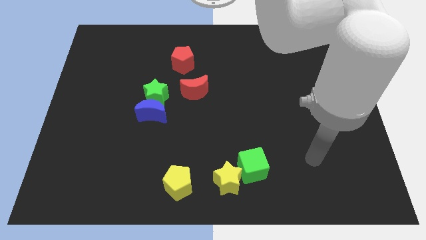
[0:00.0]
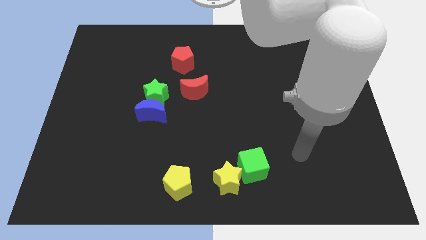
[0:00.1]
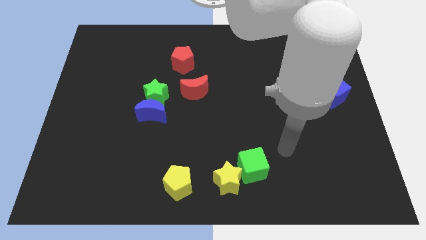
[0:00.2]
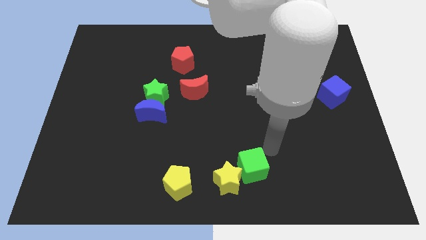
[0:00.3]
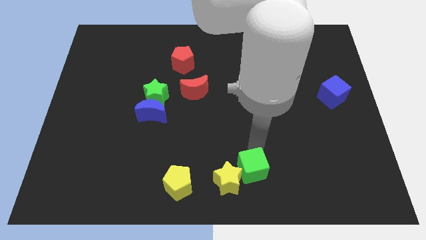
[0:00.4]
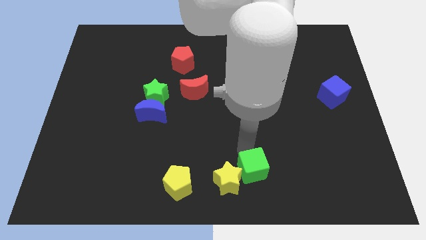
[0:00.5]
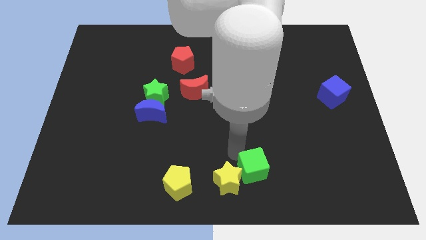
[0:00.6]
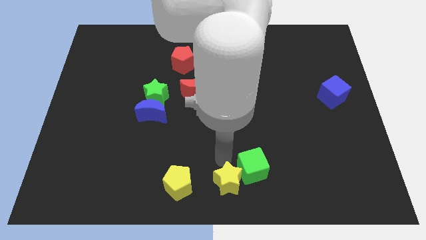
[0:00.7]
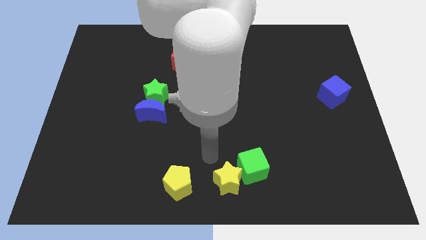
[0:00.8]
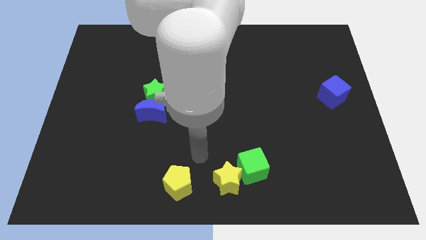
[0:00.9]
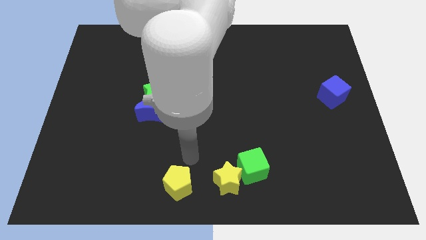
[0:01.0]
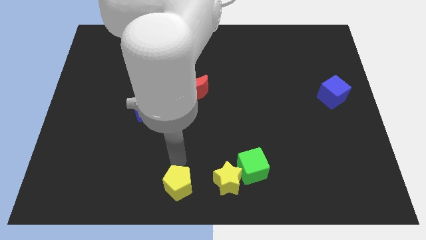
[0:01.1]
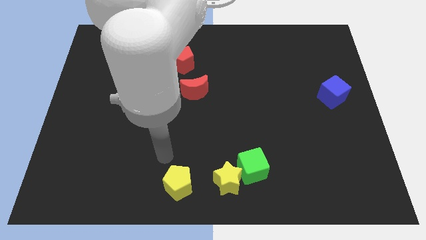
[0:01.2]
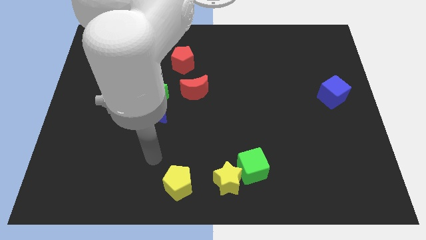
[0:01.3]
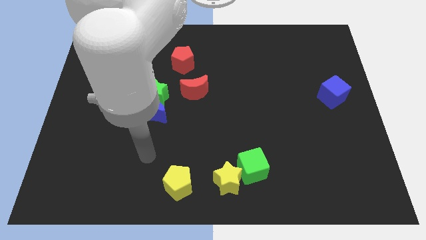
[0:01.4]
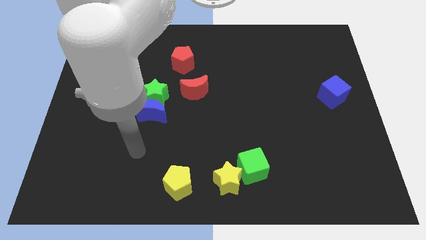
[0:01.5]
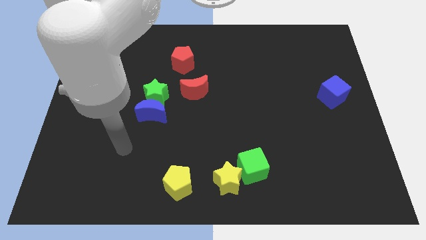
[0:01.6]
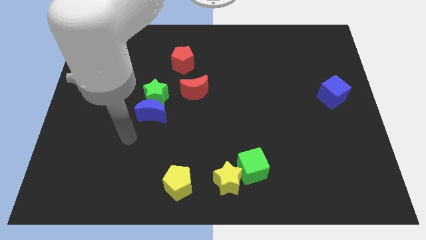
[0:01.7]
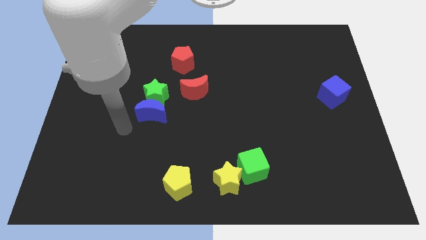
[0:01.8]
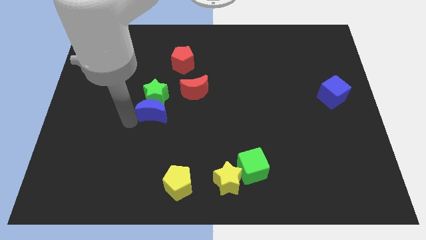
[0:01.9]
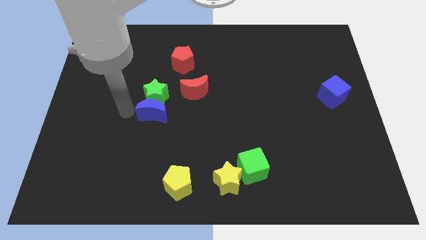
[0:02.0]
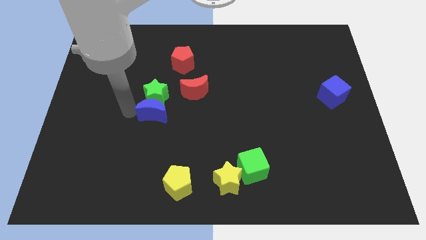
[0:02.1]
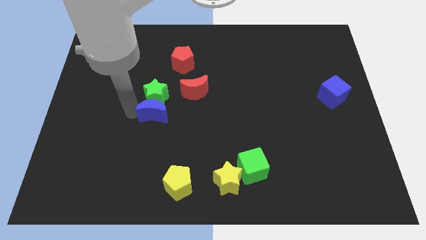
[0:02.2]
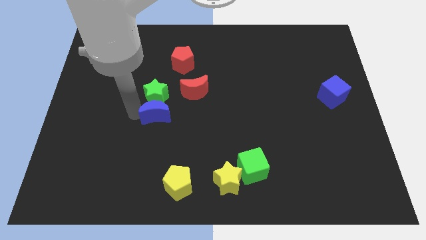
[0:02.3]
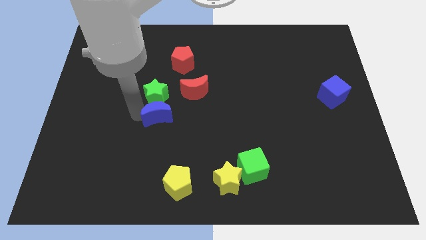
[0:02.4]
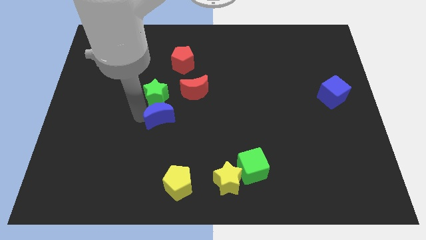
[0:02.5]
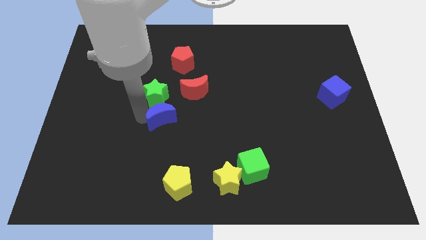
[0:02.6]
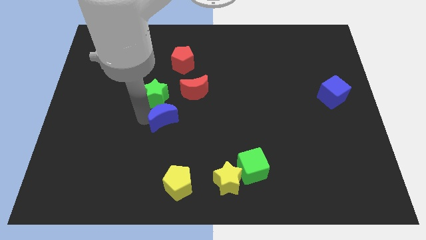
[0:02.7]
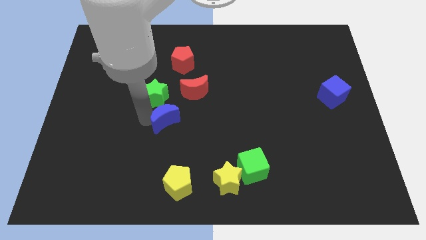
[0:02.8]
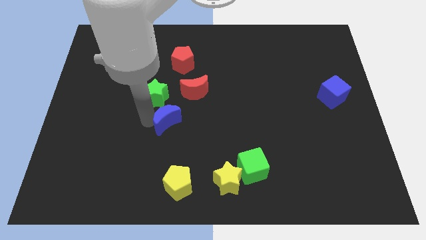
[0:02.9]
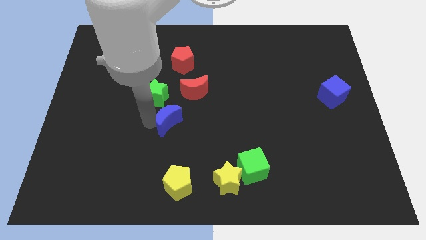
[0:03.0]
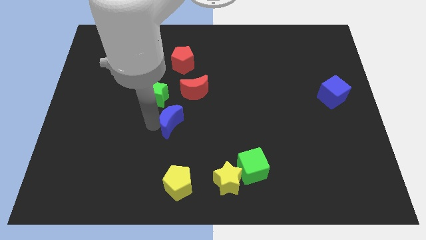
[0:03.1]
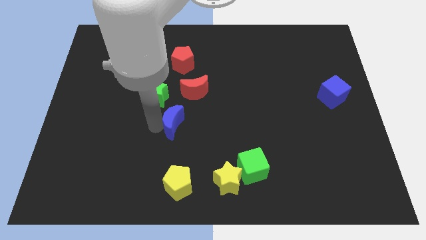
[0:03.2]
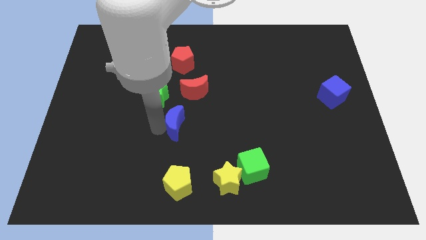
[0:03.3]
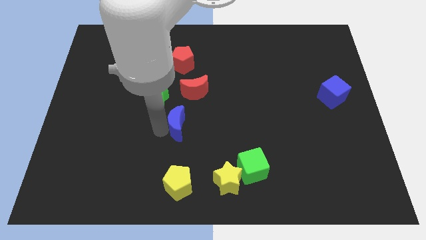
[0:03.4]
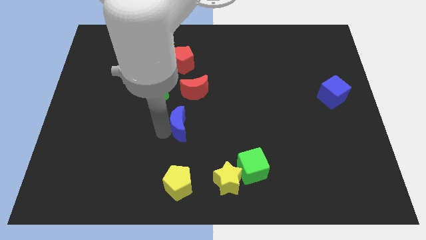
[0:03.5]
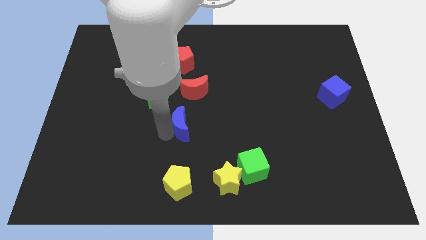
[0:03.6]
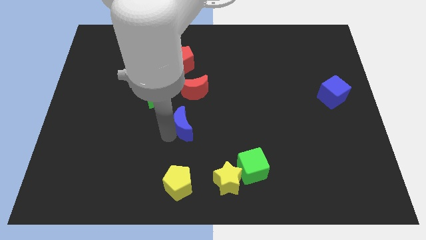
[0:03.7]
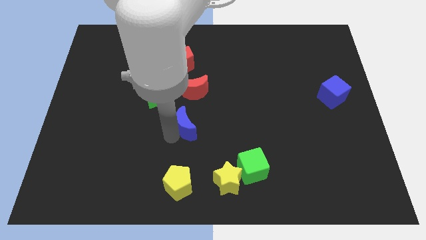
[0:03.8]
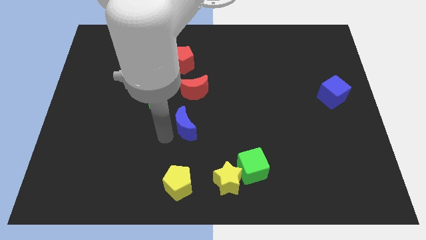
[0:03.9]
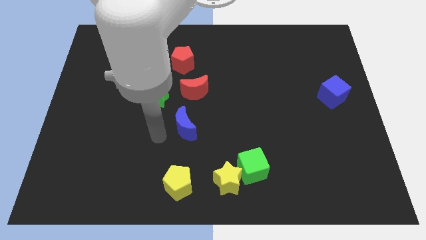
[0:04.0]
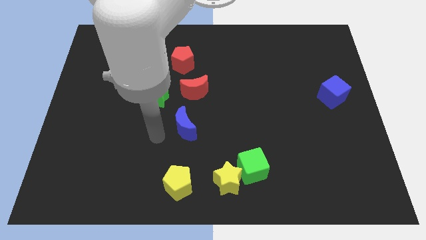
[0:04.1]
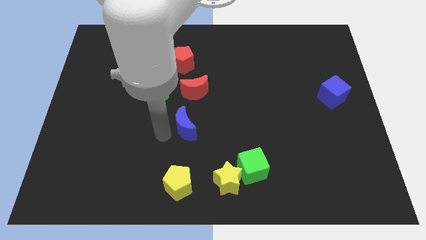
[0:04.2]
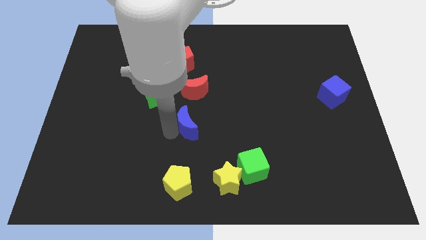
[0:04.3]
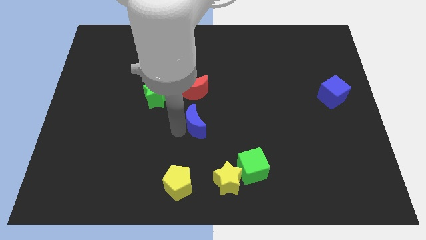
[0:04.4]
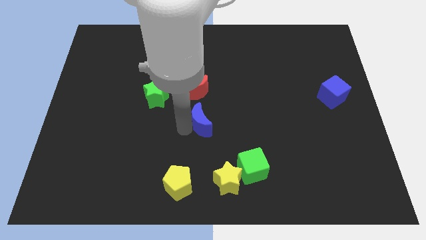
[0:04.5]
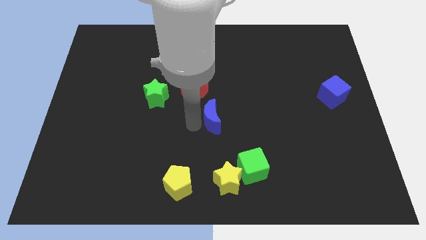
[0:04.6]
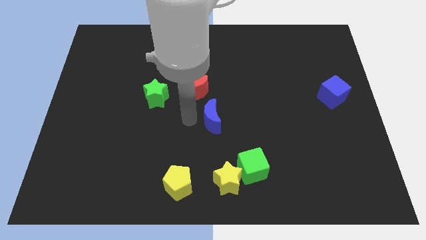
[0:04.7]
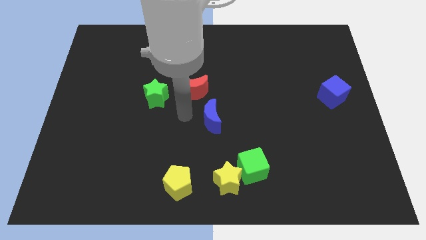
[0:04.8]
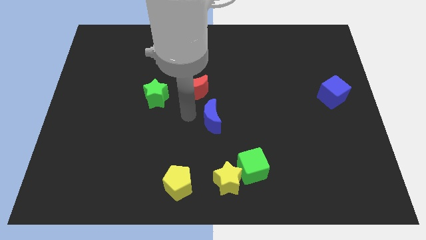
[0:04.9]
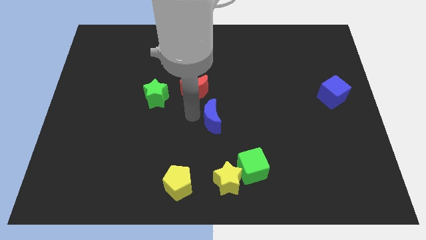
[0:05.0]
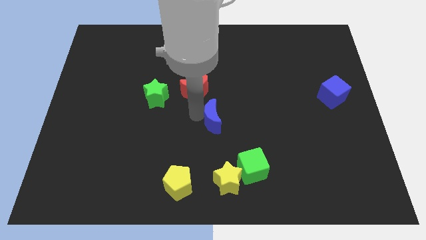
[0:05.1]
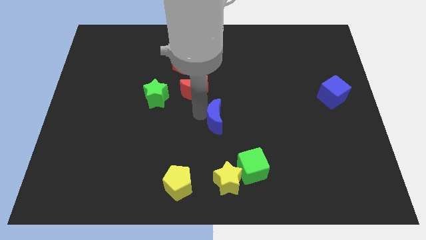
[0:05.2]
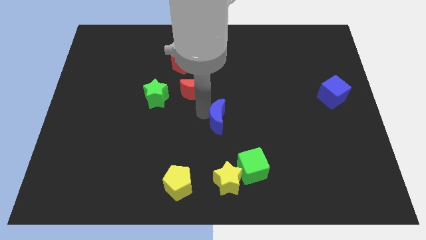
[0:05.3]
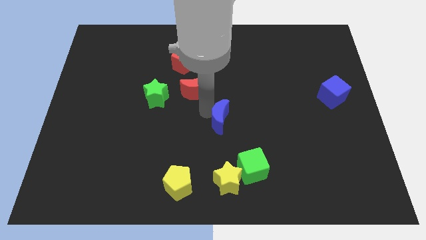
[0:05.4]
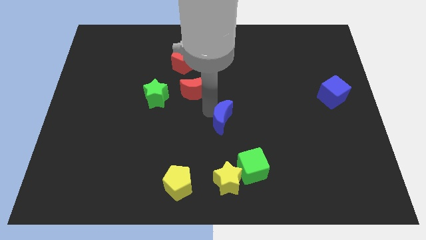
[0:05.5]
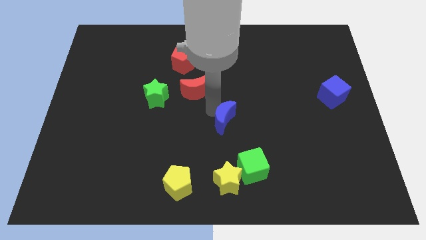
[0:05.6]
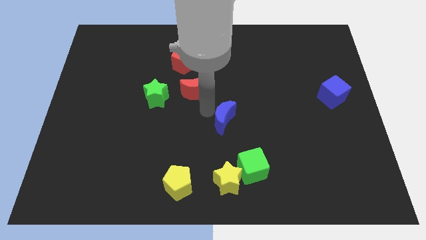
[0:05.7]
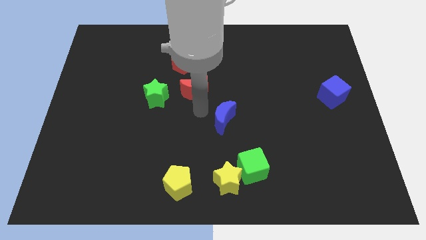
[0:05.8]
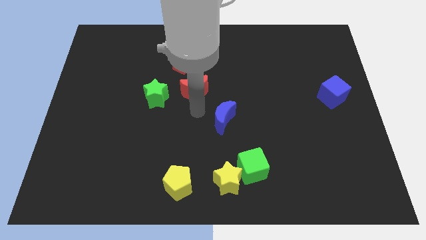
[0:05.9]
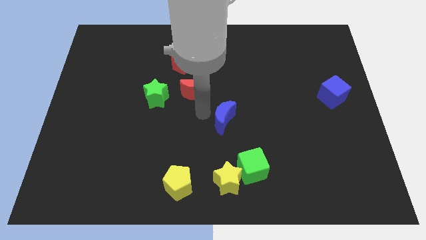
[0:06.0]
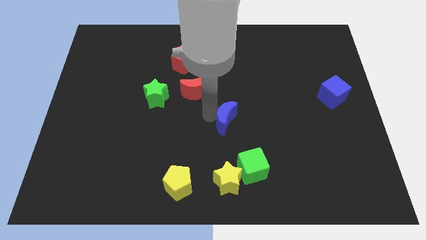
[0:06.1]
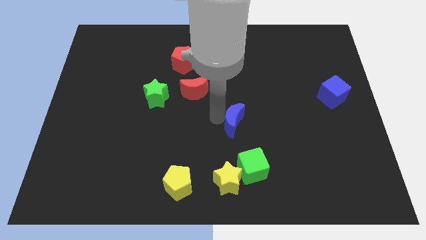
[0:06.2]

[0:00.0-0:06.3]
push the blue moon above the green cube

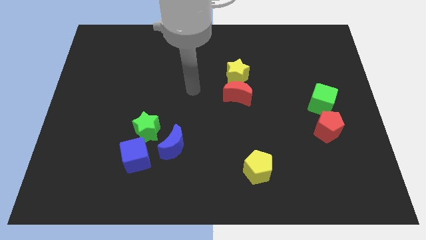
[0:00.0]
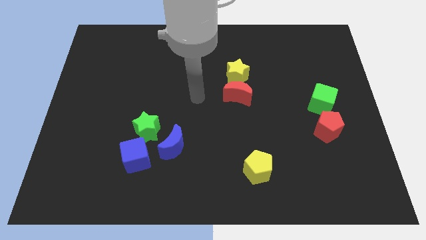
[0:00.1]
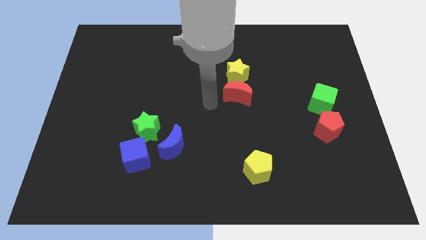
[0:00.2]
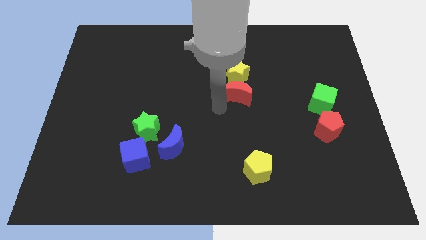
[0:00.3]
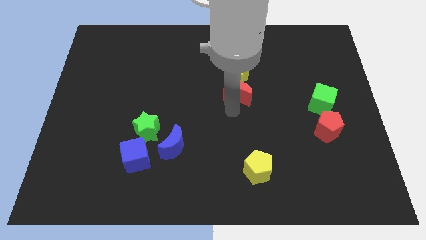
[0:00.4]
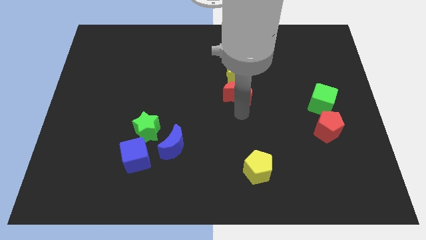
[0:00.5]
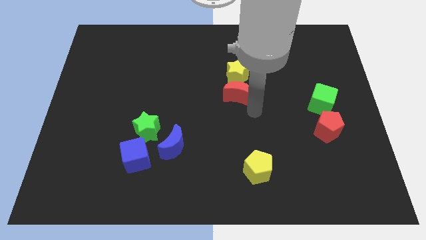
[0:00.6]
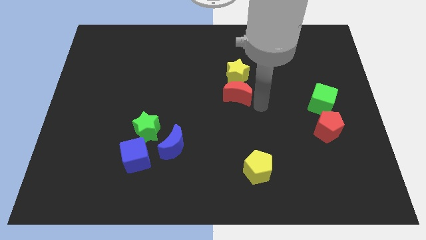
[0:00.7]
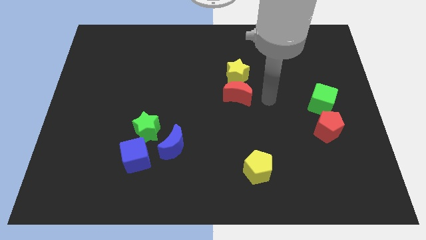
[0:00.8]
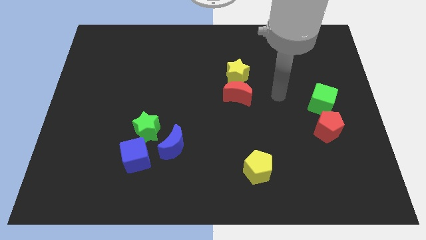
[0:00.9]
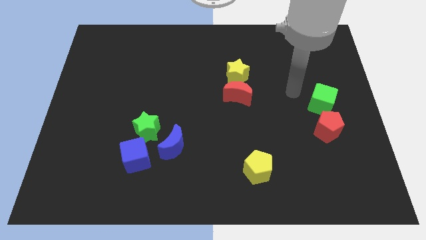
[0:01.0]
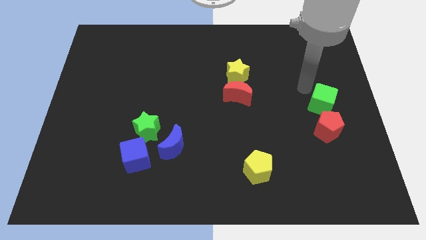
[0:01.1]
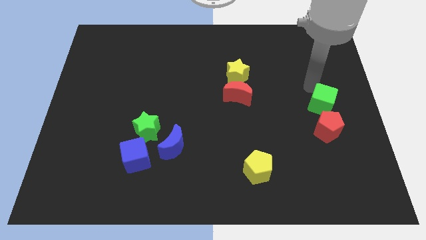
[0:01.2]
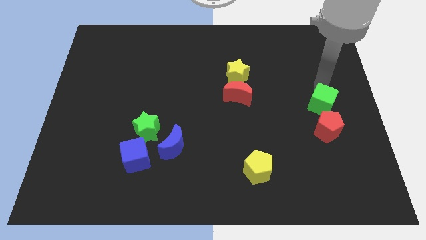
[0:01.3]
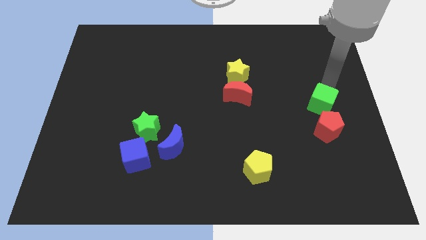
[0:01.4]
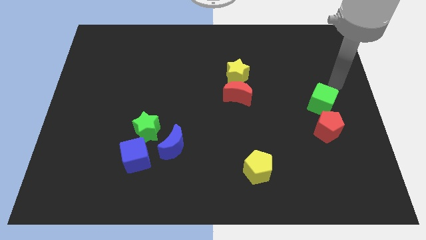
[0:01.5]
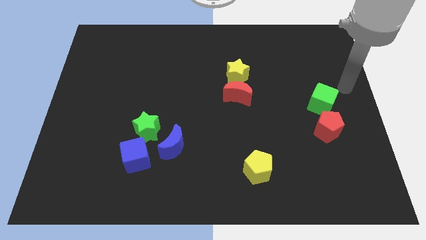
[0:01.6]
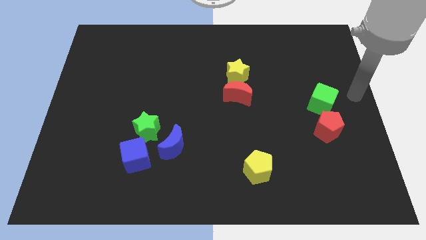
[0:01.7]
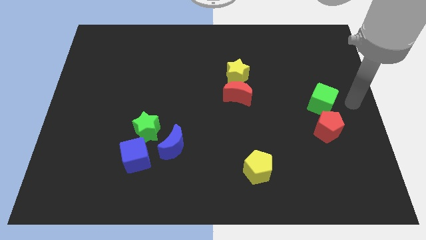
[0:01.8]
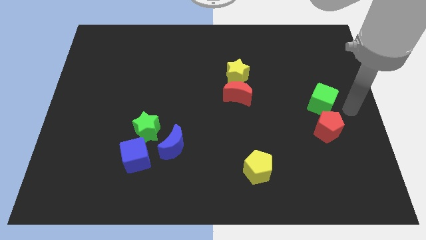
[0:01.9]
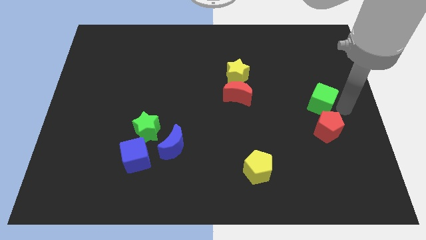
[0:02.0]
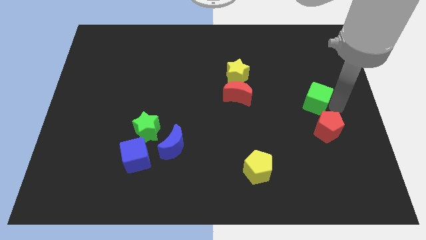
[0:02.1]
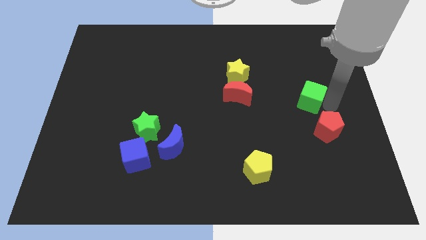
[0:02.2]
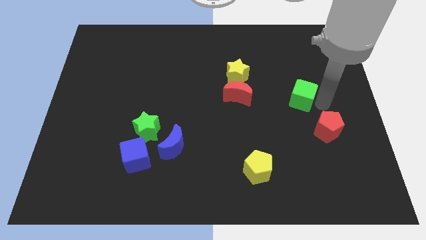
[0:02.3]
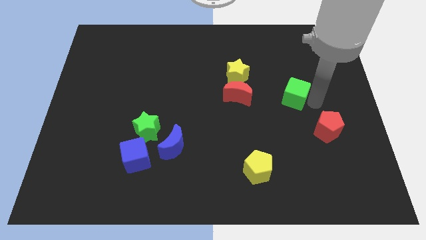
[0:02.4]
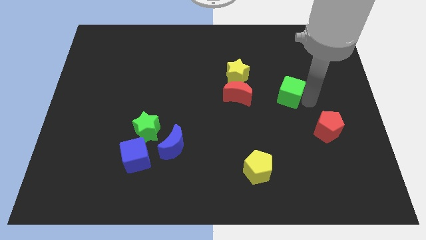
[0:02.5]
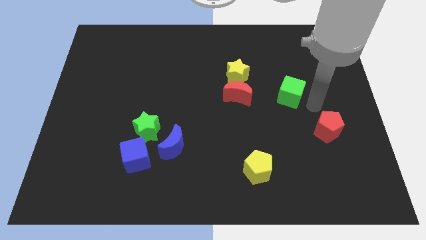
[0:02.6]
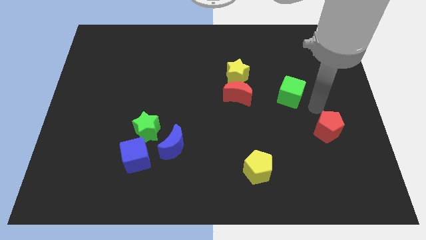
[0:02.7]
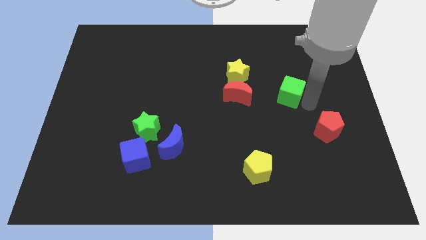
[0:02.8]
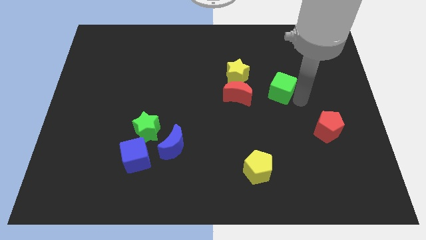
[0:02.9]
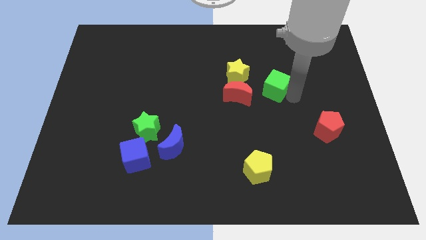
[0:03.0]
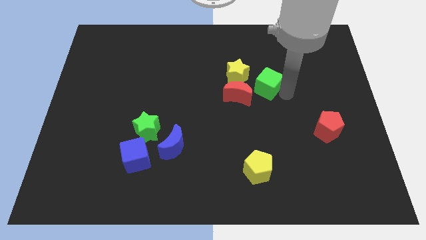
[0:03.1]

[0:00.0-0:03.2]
slide the green cube to the top right side of the red moon
